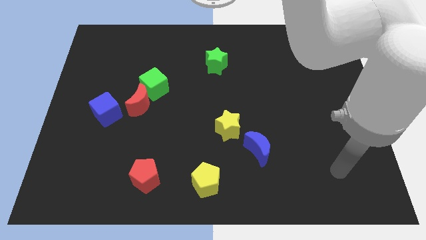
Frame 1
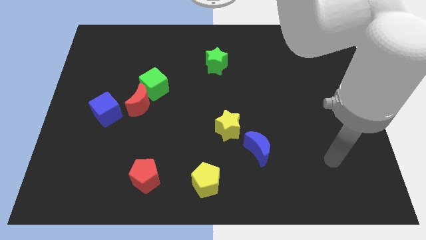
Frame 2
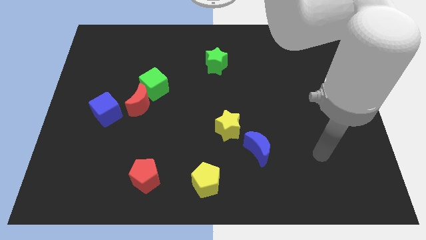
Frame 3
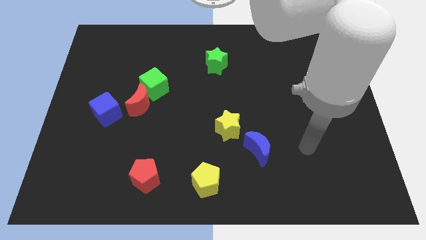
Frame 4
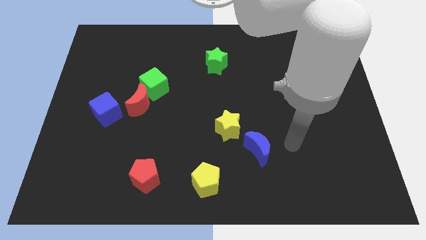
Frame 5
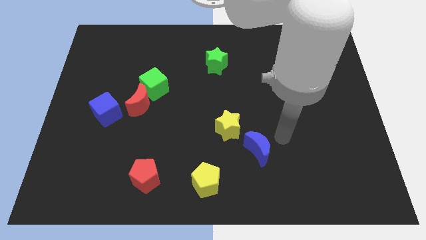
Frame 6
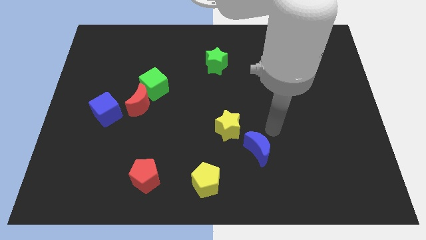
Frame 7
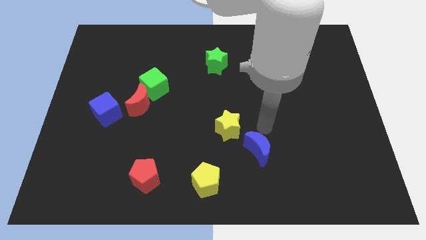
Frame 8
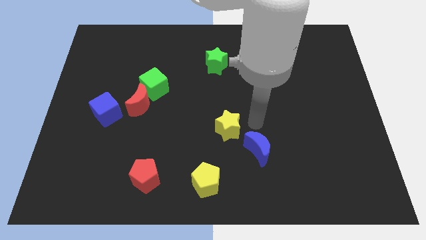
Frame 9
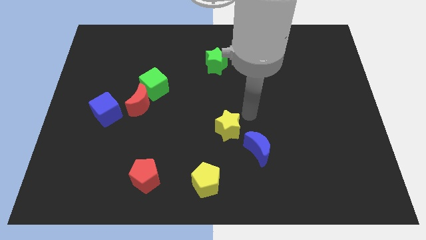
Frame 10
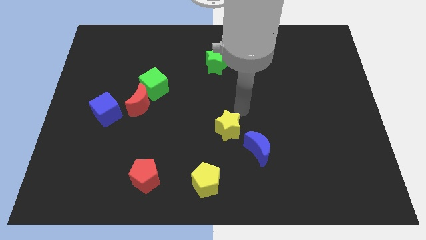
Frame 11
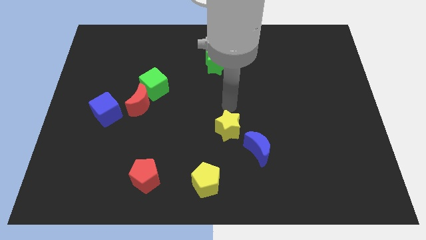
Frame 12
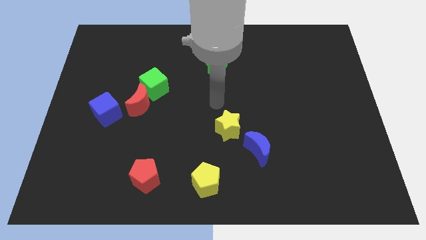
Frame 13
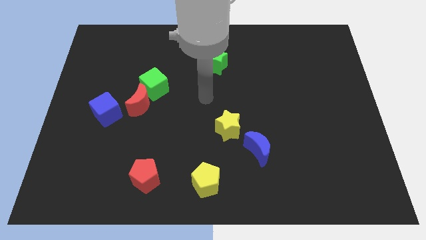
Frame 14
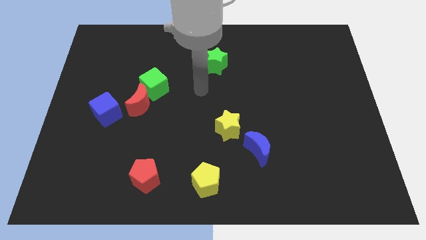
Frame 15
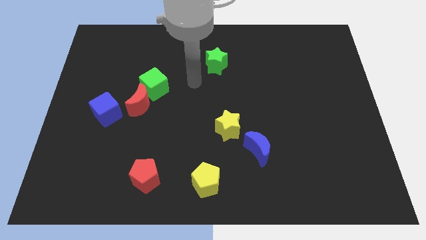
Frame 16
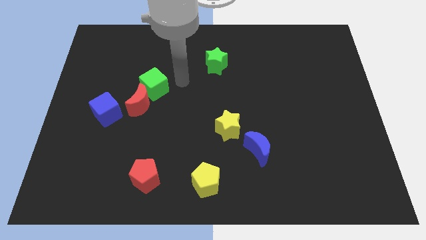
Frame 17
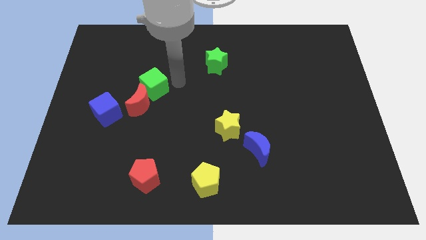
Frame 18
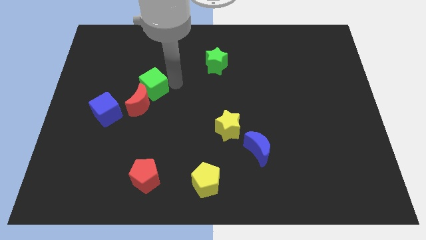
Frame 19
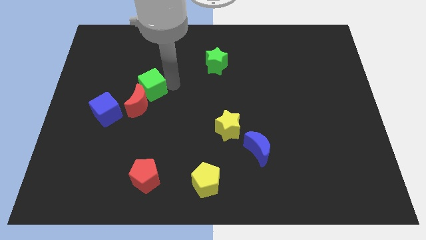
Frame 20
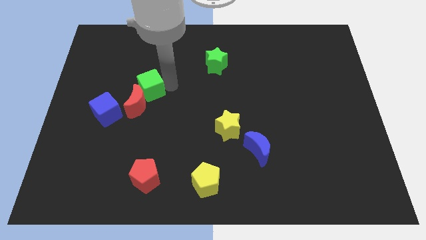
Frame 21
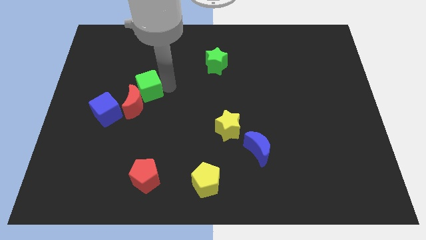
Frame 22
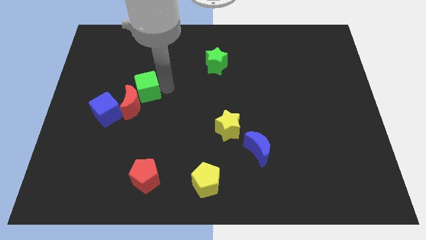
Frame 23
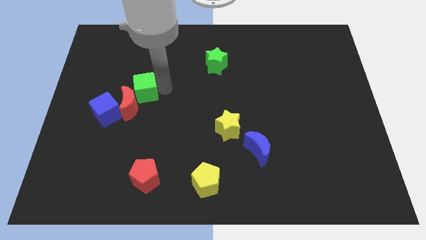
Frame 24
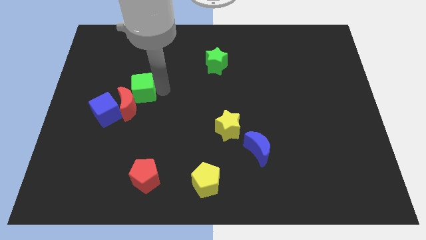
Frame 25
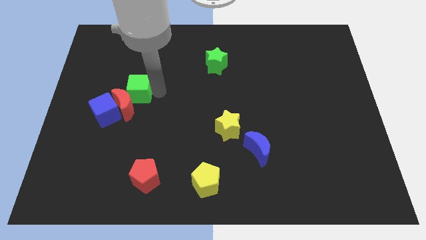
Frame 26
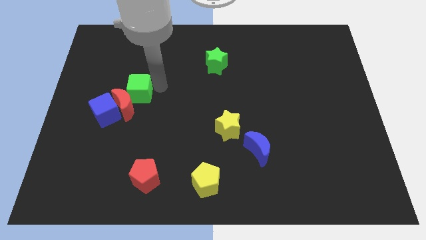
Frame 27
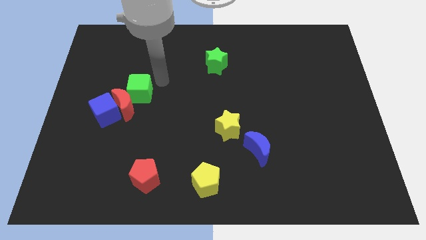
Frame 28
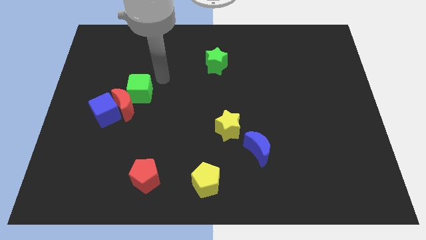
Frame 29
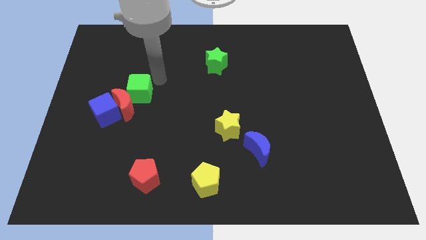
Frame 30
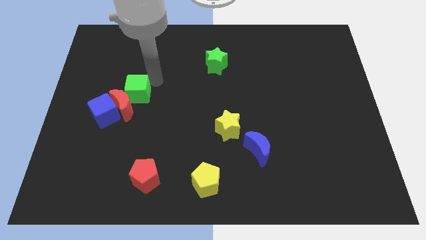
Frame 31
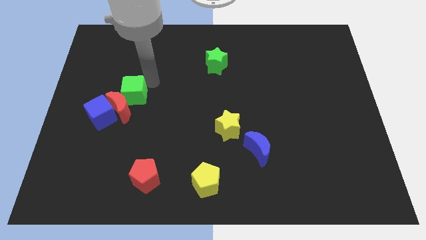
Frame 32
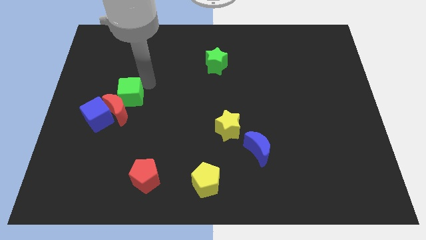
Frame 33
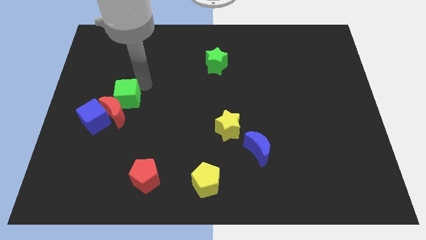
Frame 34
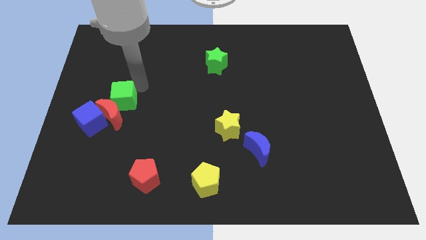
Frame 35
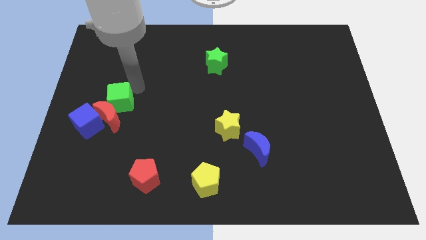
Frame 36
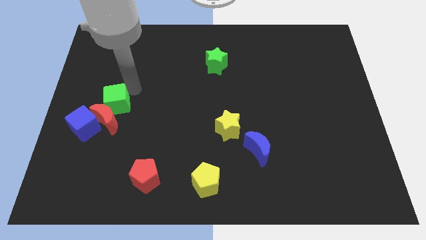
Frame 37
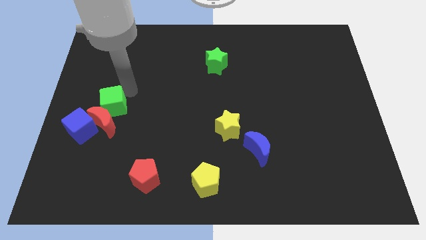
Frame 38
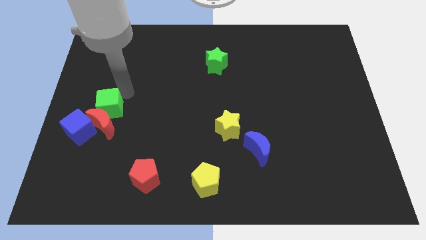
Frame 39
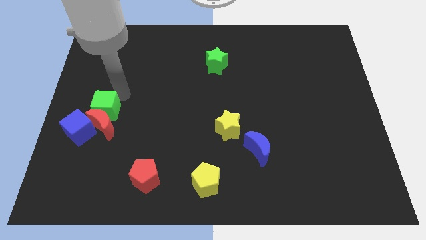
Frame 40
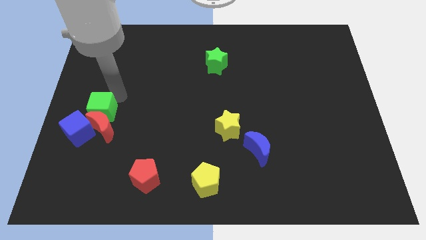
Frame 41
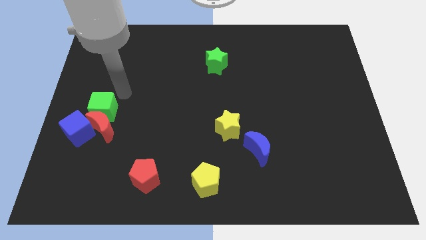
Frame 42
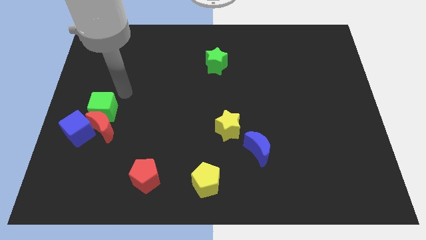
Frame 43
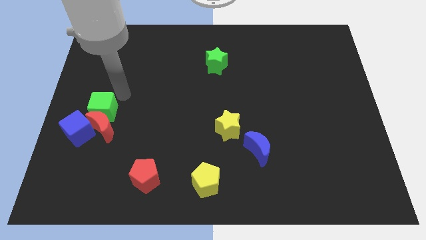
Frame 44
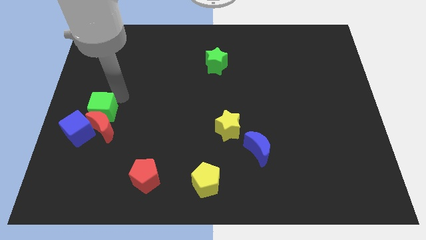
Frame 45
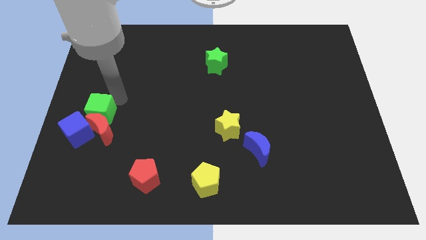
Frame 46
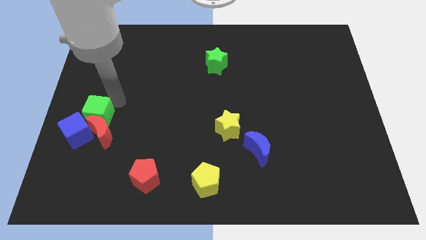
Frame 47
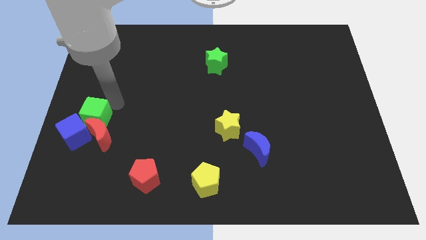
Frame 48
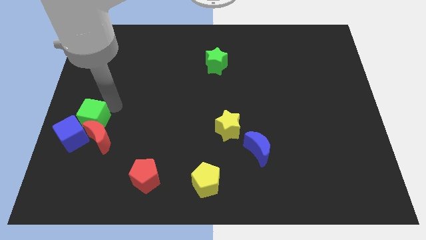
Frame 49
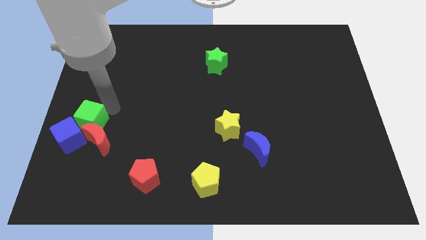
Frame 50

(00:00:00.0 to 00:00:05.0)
slide the green cube towards the blue cube

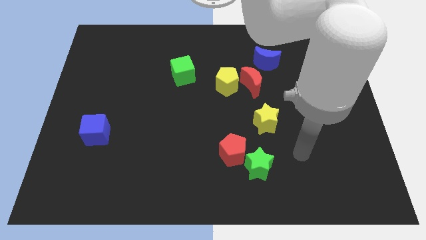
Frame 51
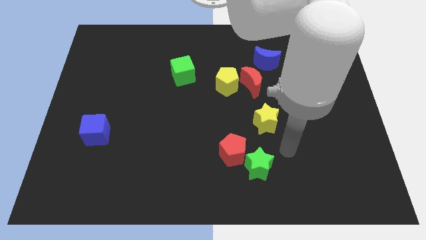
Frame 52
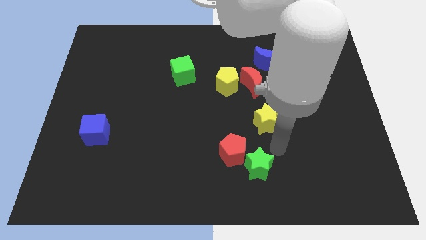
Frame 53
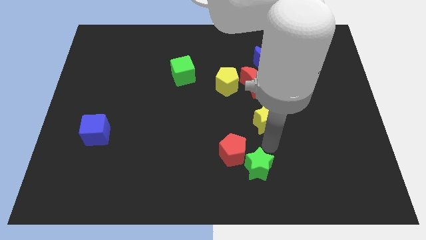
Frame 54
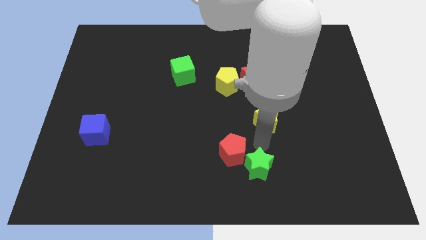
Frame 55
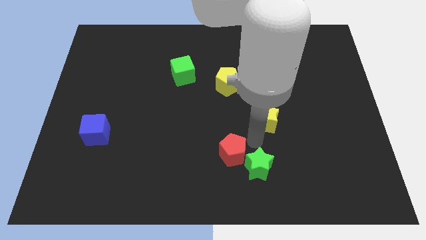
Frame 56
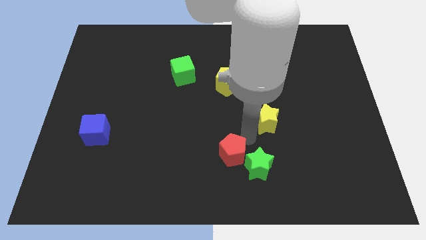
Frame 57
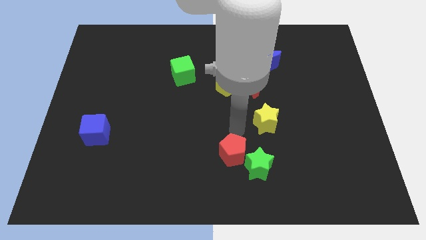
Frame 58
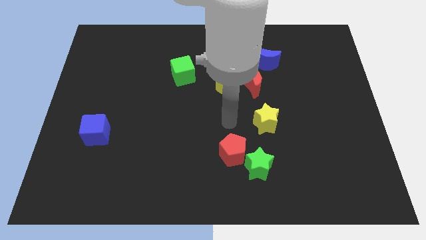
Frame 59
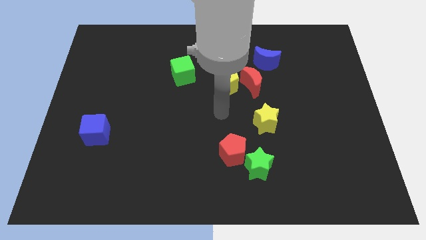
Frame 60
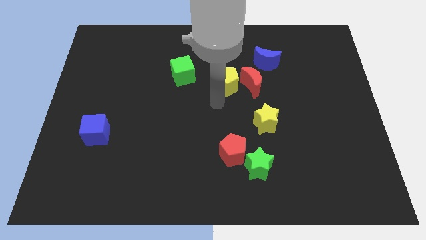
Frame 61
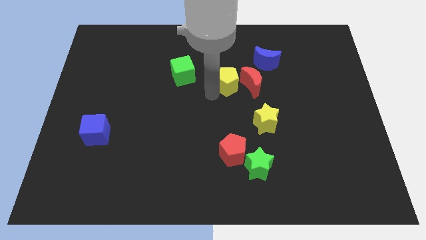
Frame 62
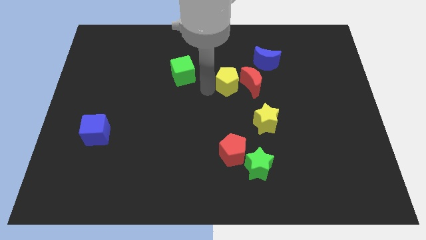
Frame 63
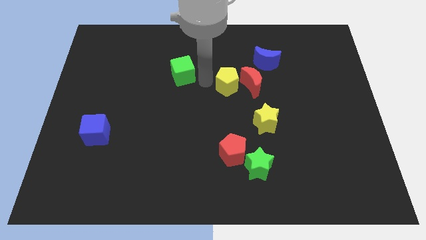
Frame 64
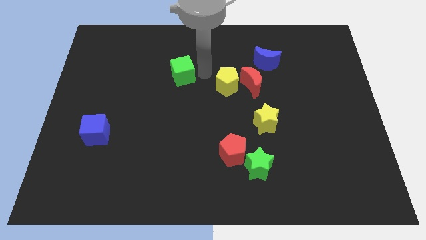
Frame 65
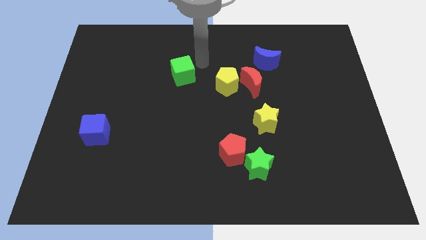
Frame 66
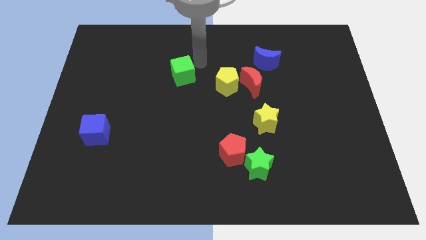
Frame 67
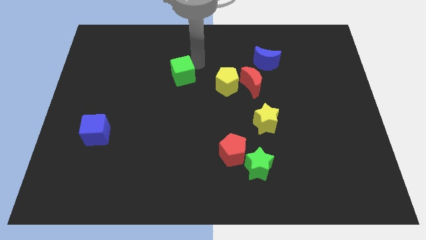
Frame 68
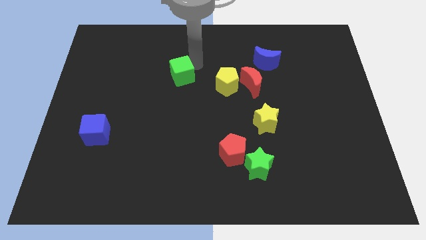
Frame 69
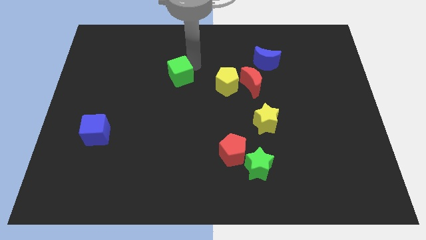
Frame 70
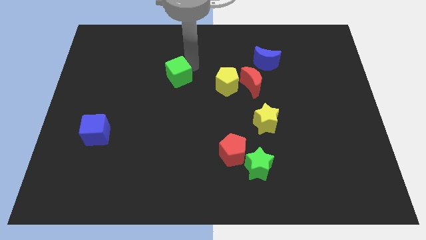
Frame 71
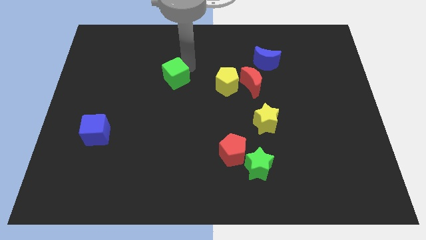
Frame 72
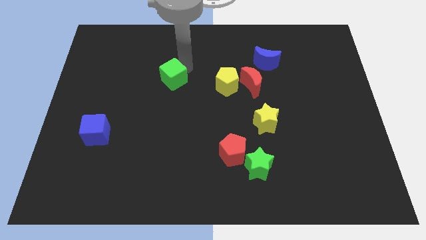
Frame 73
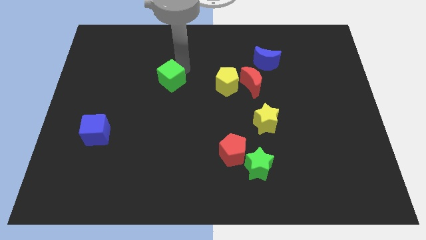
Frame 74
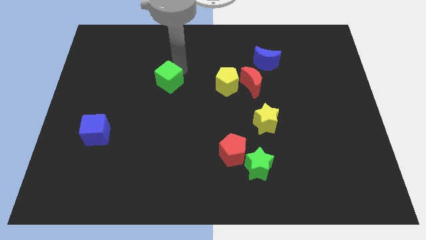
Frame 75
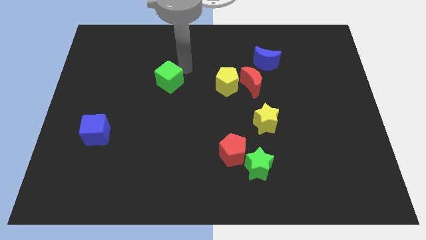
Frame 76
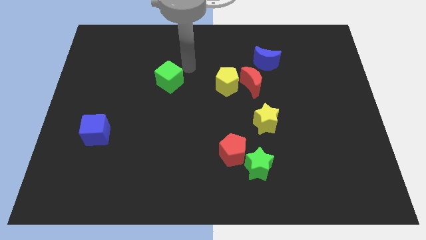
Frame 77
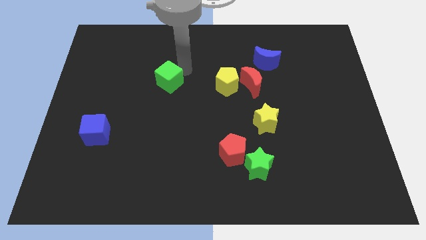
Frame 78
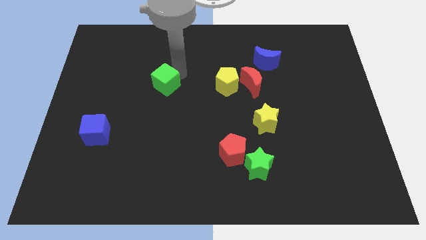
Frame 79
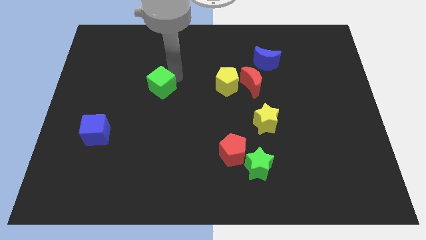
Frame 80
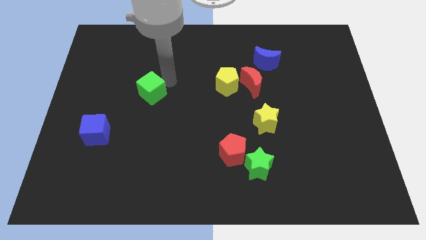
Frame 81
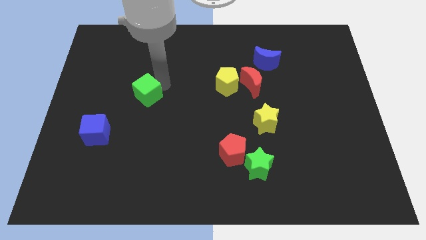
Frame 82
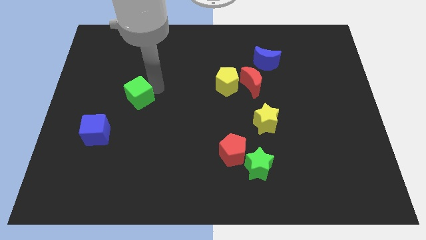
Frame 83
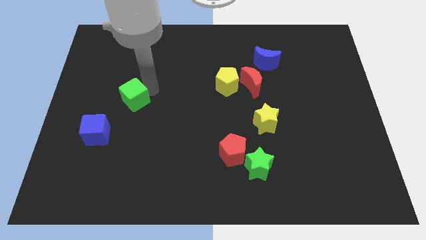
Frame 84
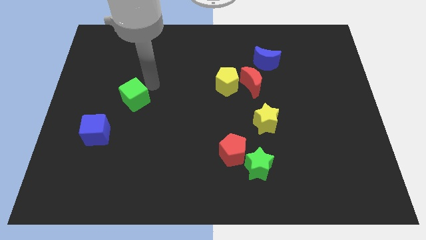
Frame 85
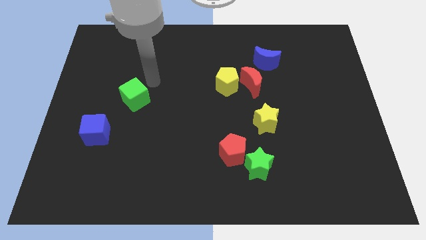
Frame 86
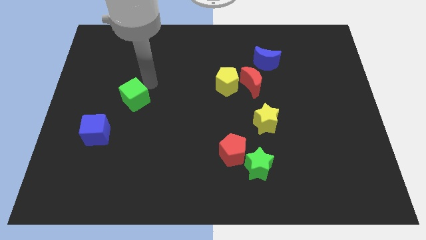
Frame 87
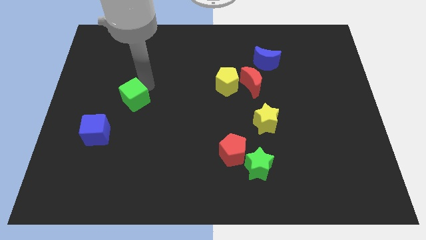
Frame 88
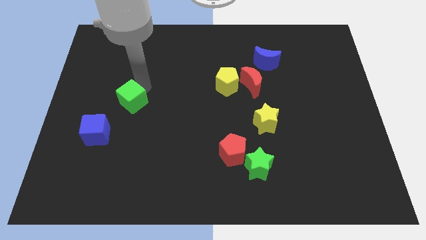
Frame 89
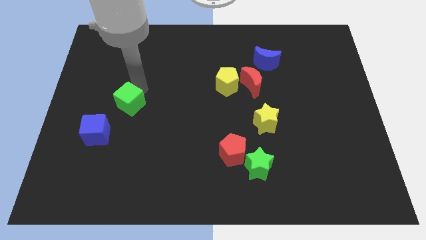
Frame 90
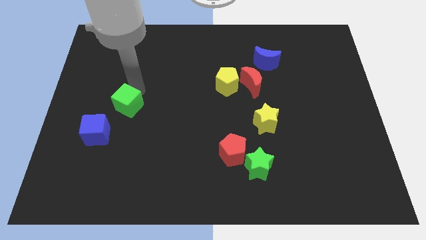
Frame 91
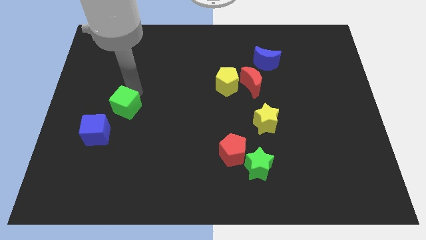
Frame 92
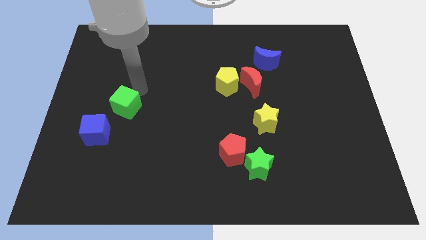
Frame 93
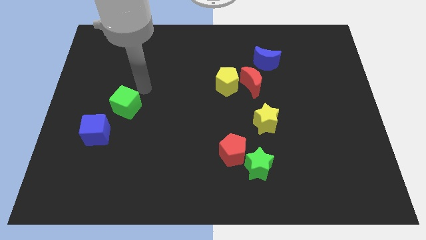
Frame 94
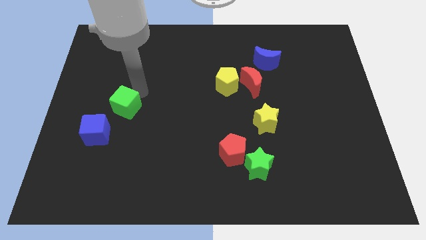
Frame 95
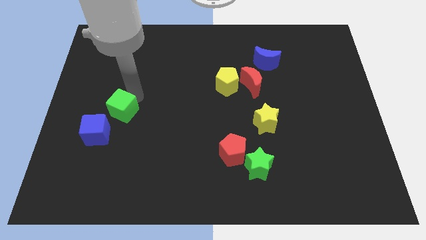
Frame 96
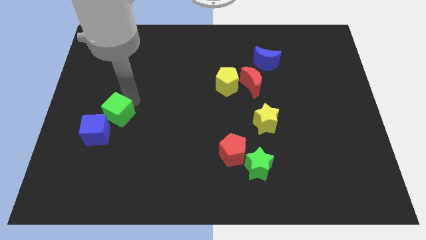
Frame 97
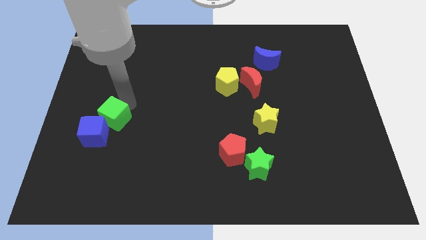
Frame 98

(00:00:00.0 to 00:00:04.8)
push the green cube to the blue cube
